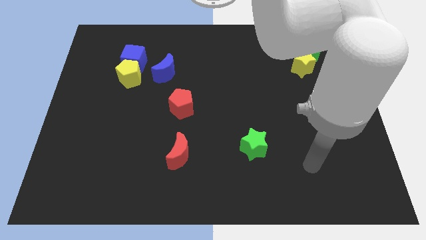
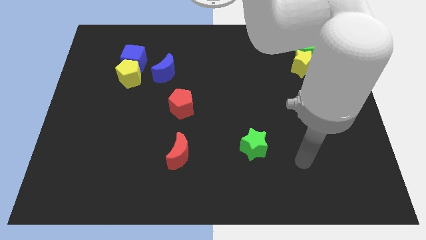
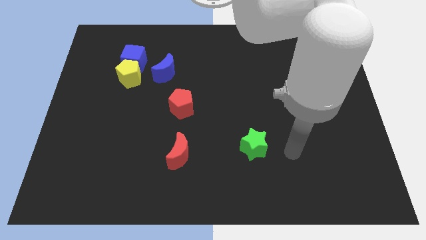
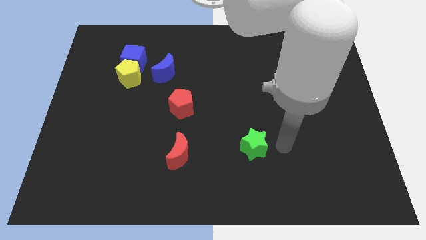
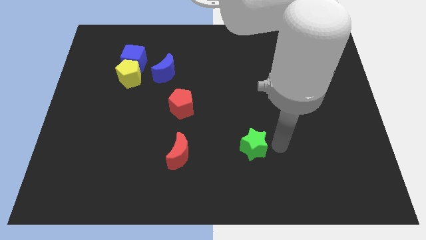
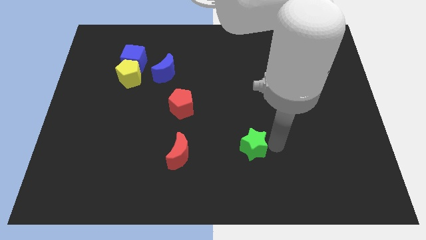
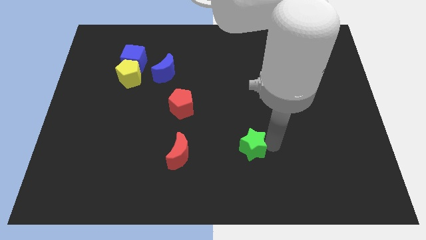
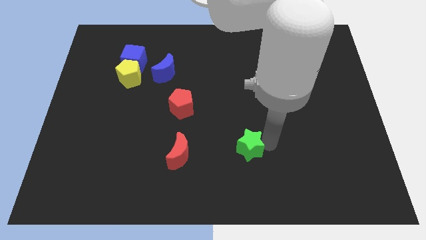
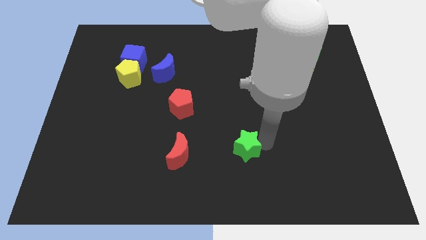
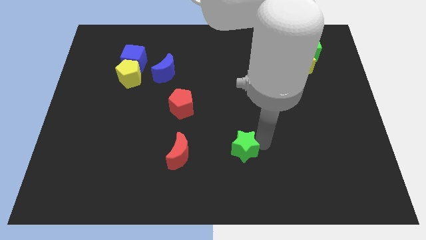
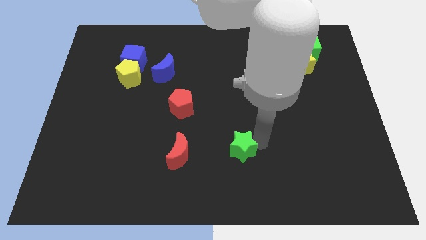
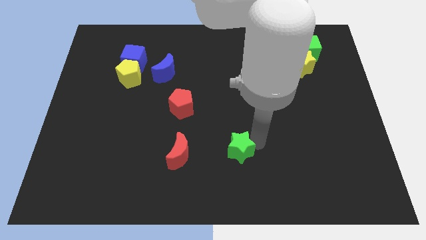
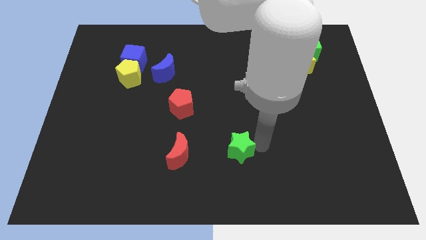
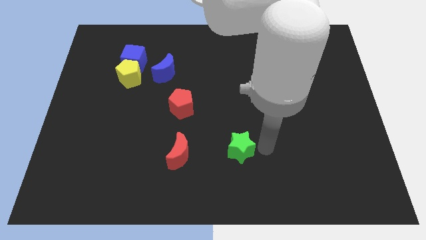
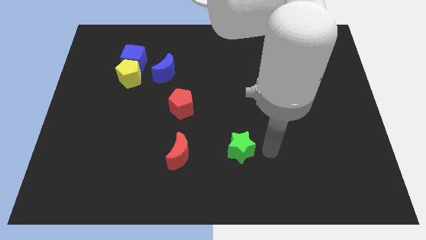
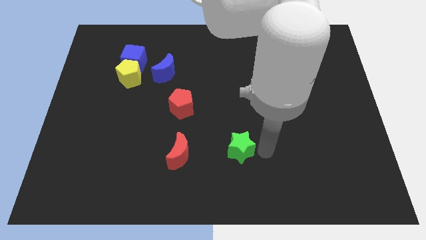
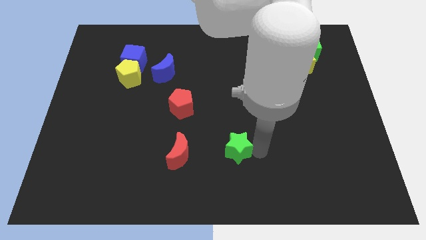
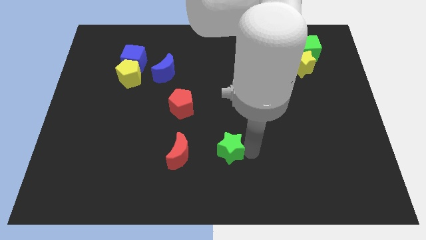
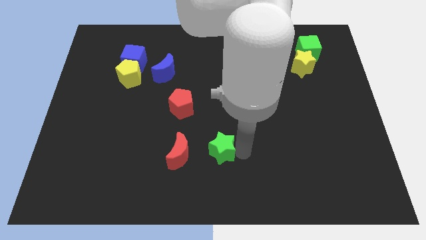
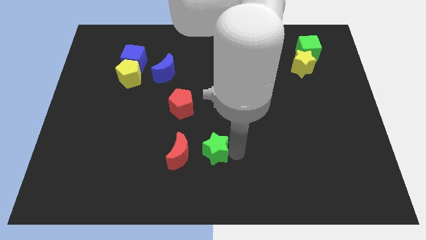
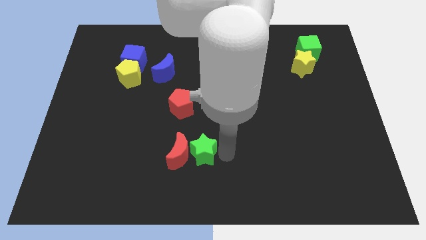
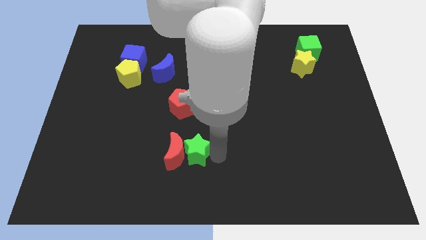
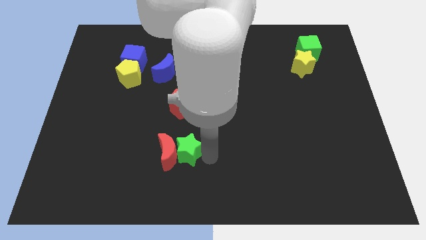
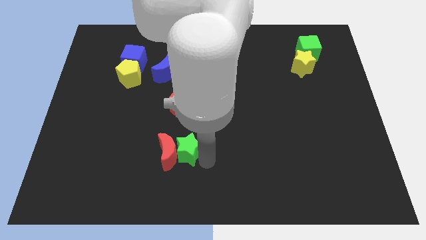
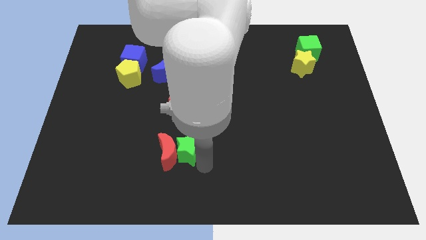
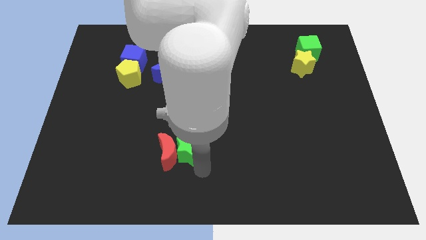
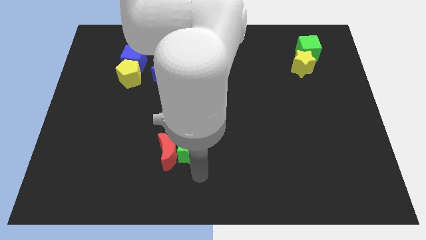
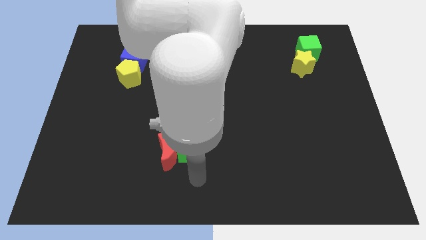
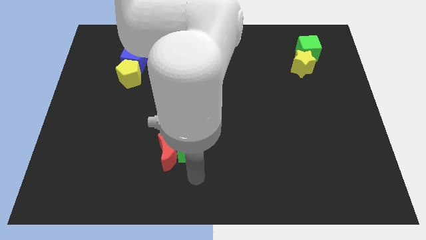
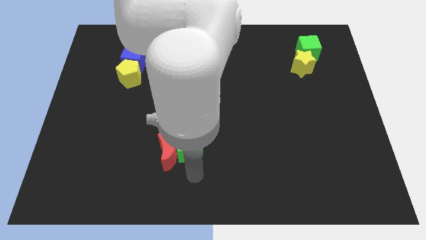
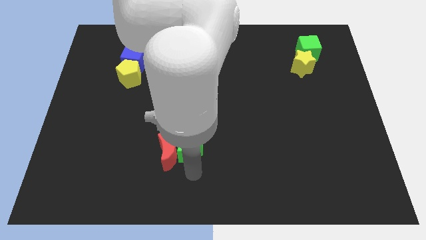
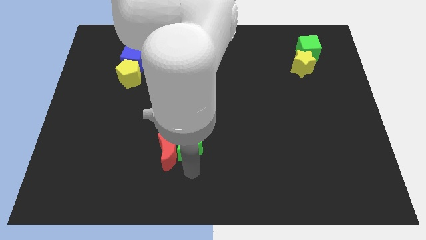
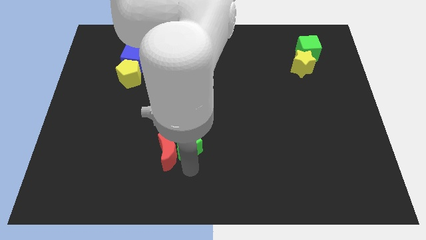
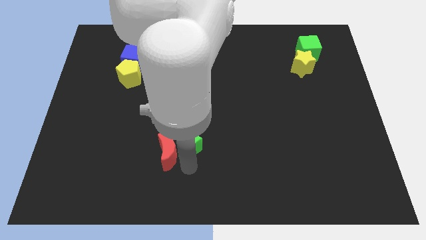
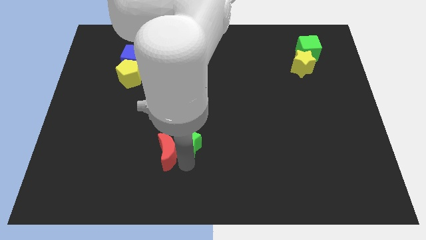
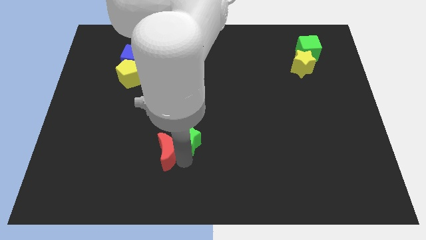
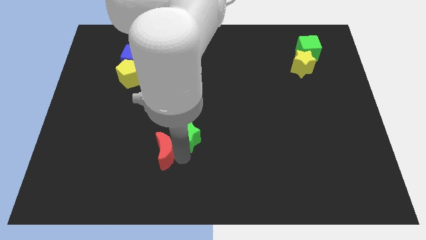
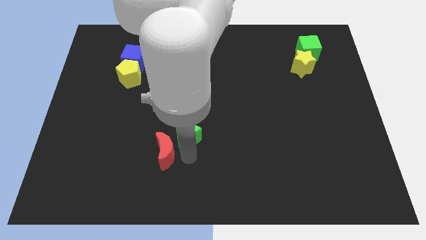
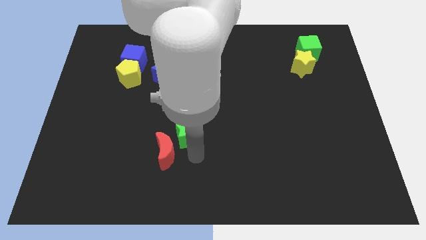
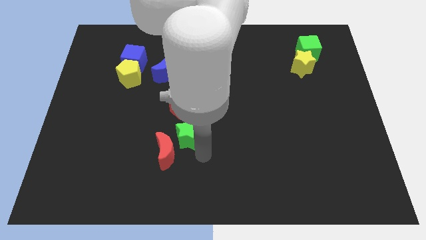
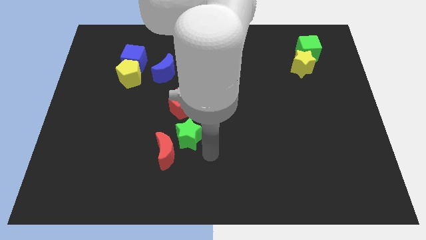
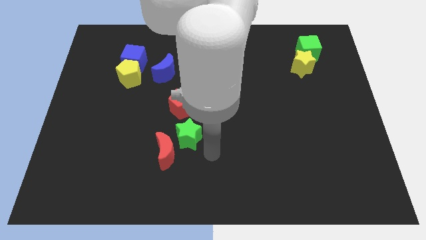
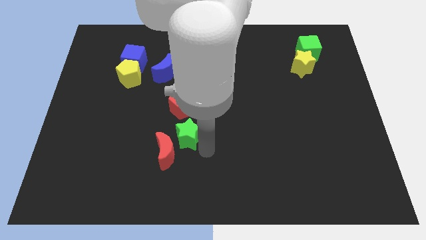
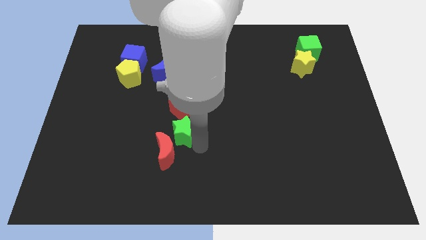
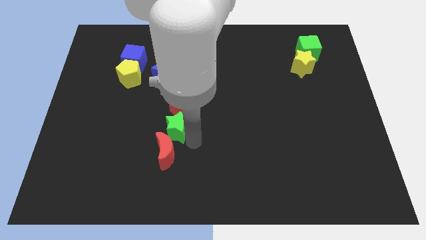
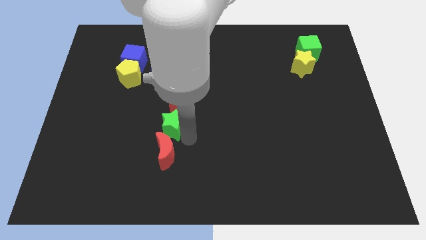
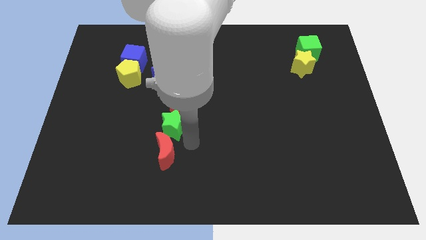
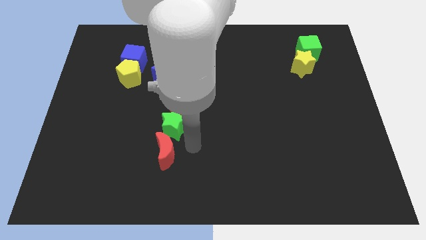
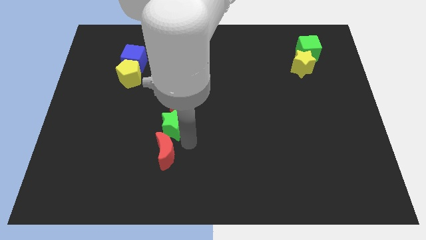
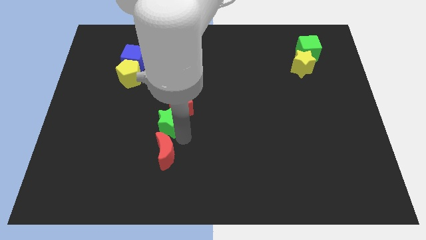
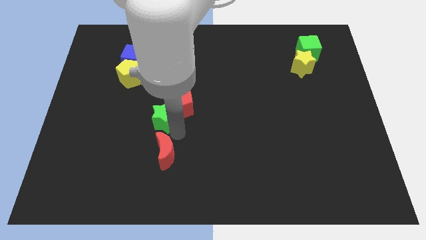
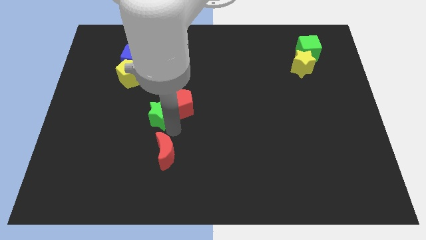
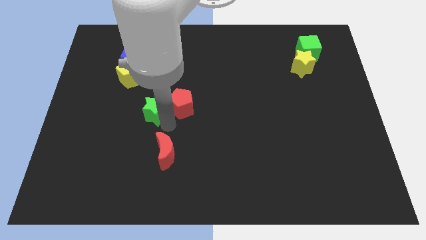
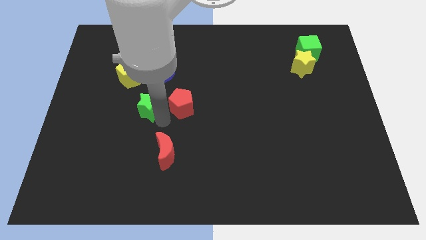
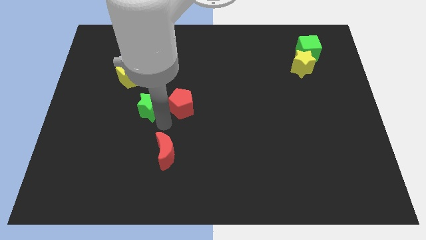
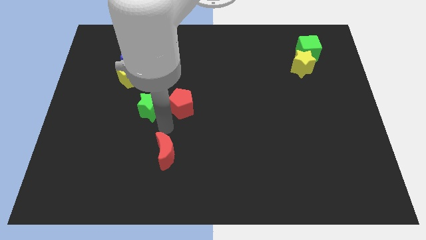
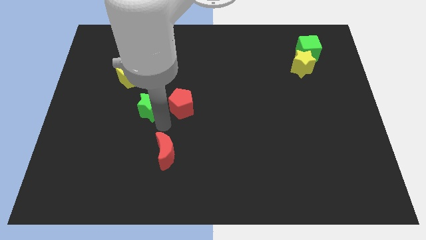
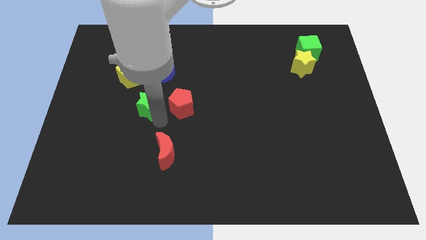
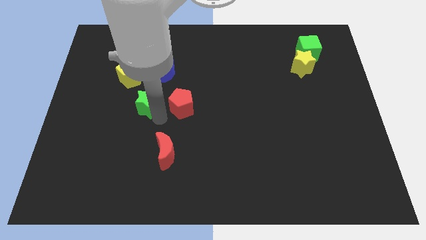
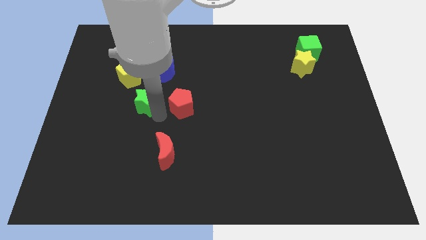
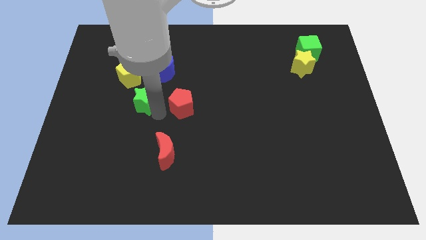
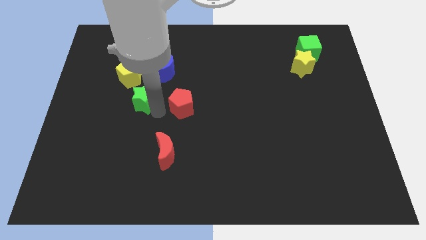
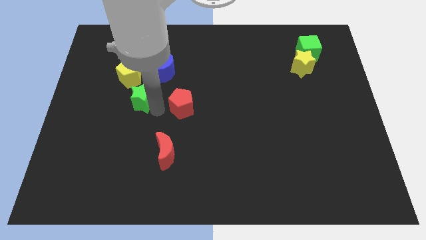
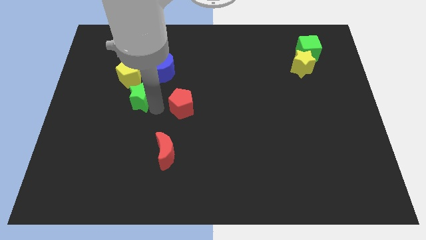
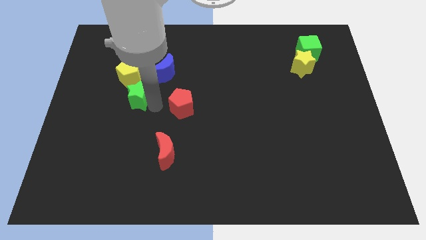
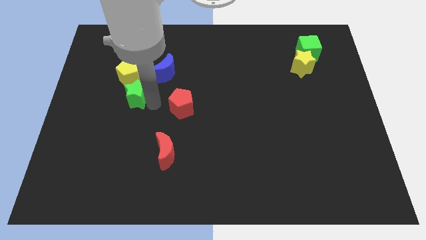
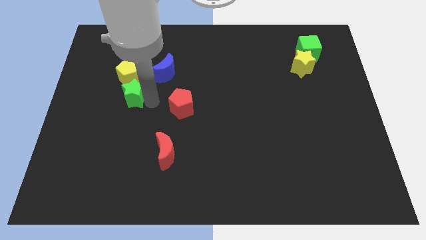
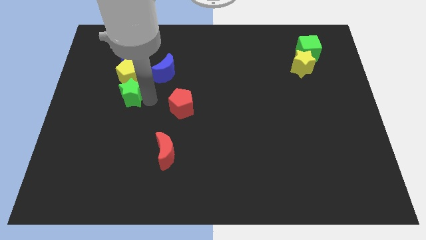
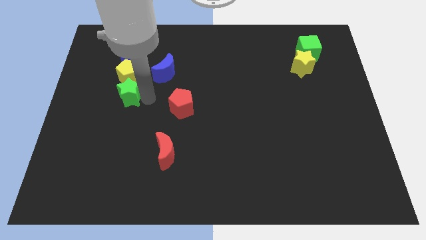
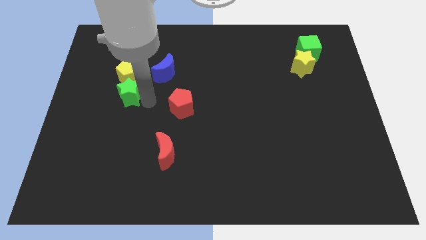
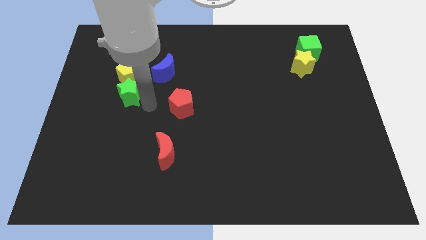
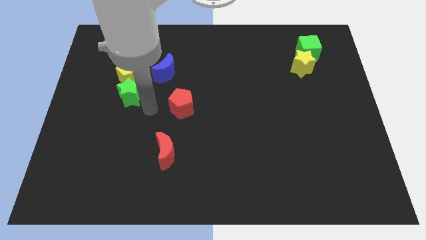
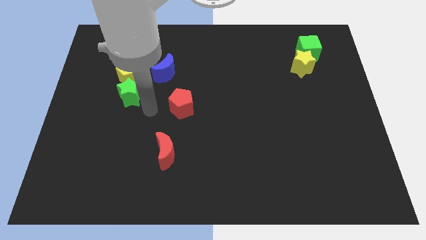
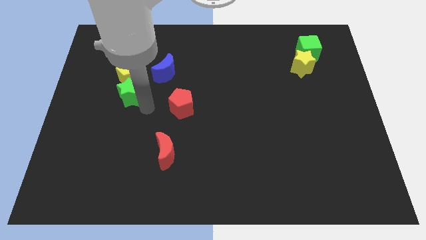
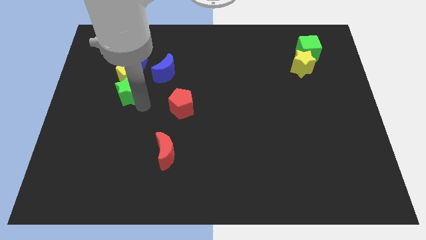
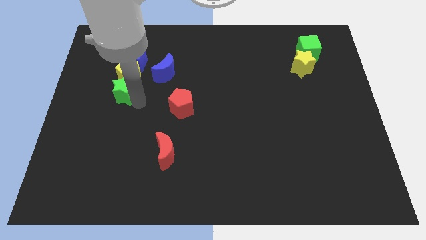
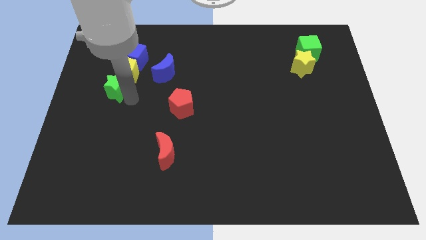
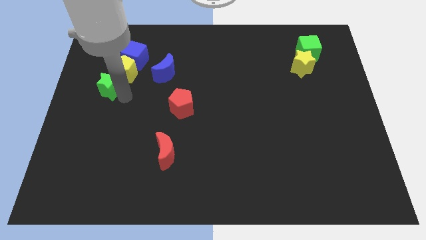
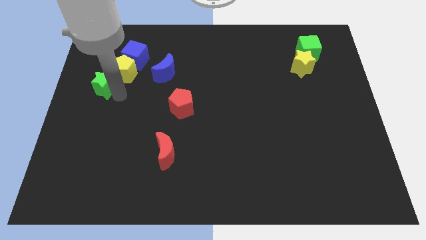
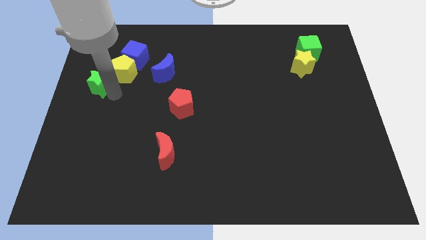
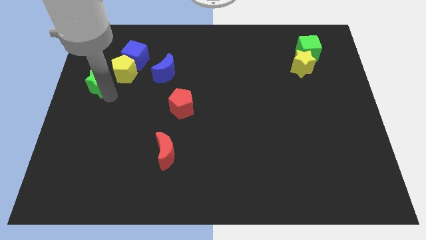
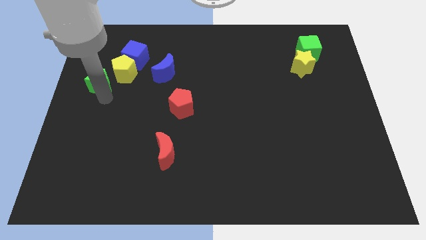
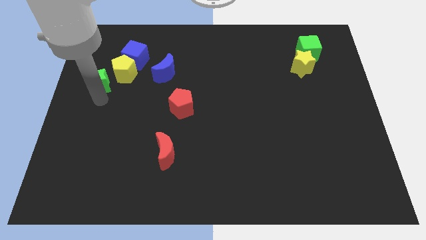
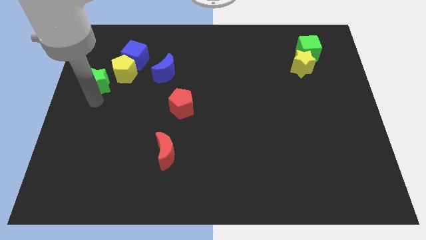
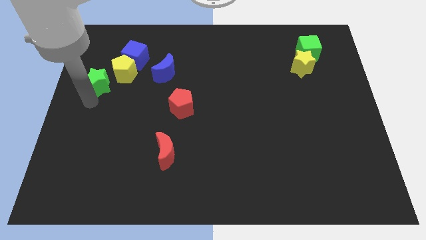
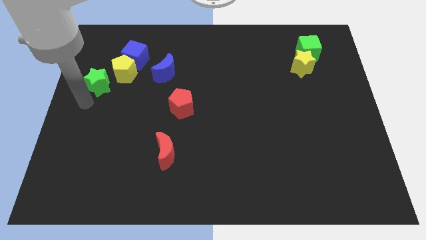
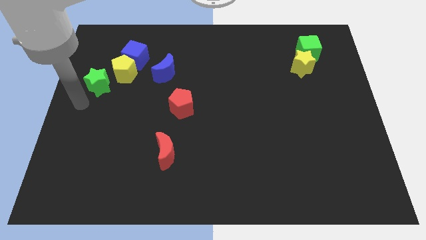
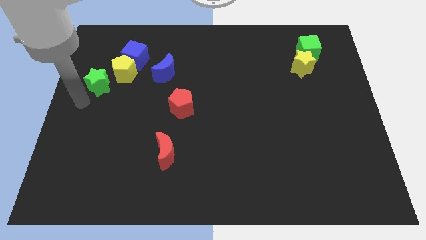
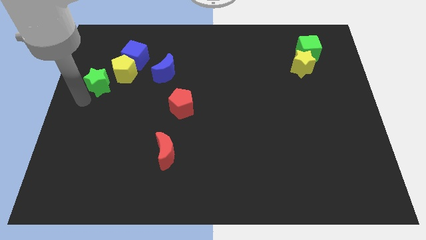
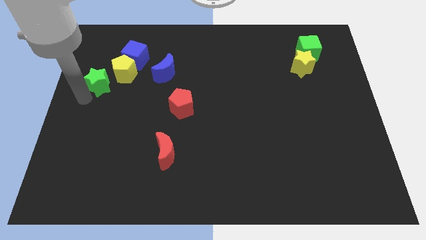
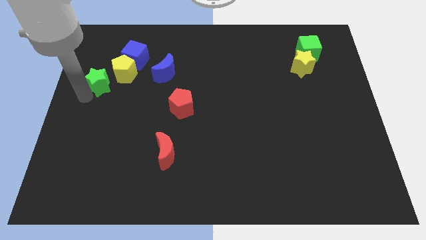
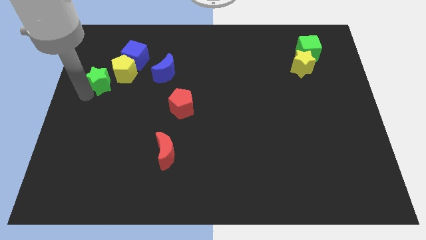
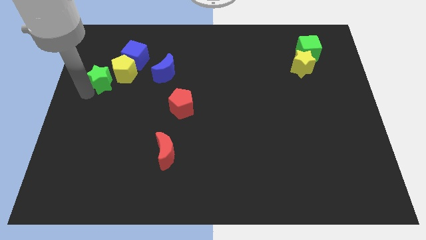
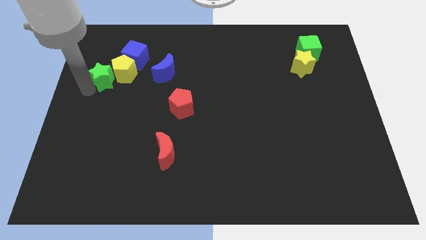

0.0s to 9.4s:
move the green star to the left side of the blue moon
